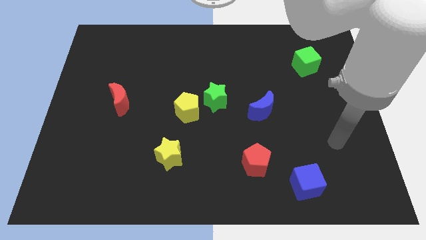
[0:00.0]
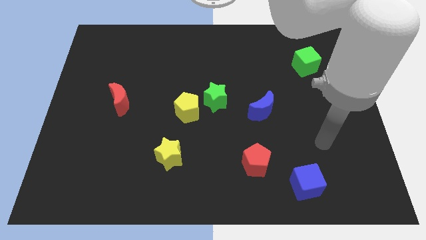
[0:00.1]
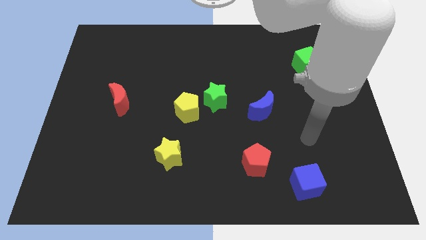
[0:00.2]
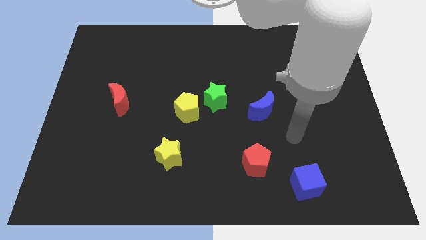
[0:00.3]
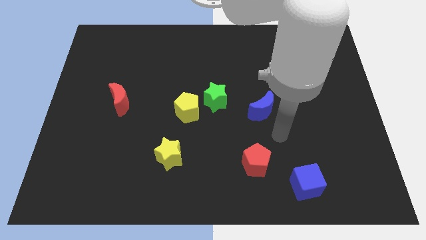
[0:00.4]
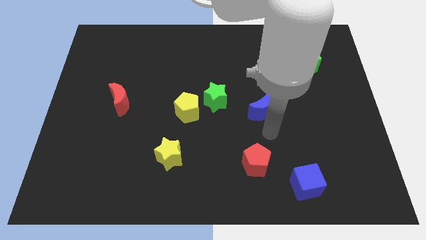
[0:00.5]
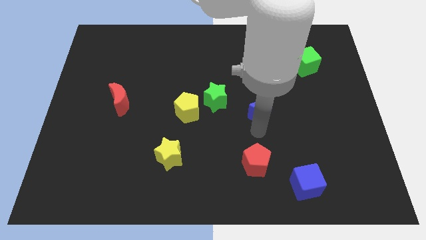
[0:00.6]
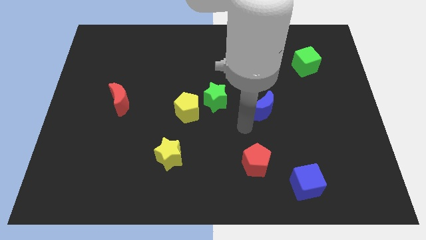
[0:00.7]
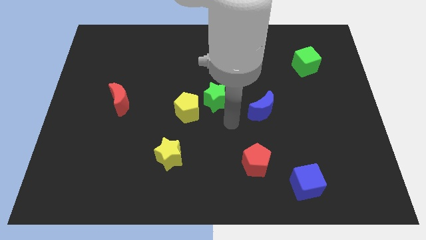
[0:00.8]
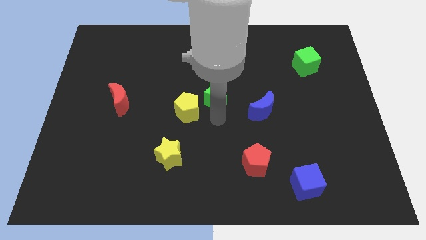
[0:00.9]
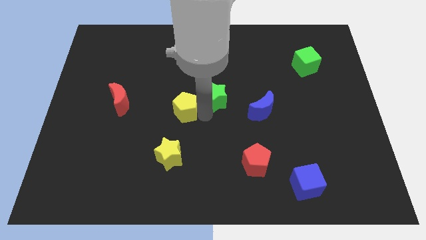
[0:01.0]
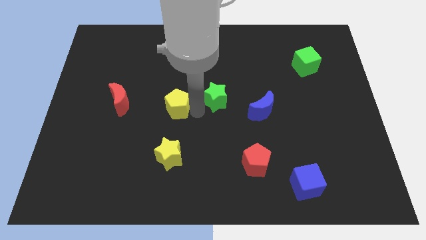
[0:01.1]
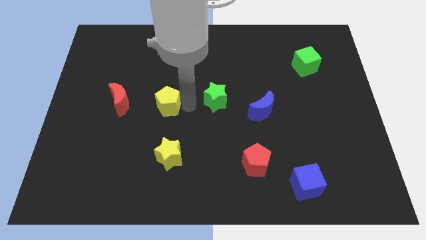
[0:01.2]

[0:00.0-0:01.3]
move the green star away from the yellow pentagon

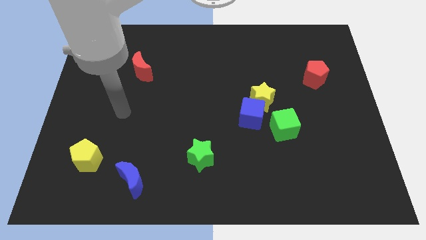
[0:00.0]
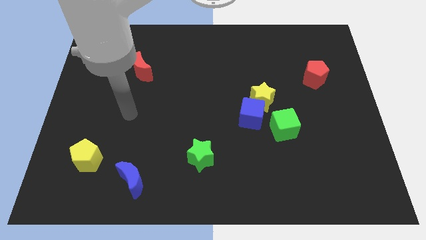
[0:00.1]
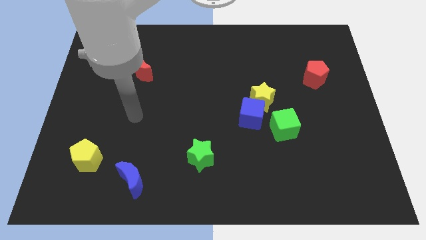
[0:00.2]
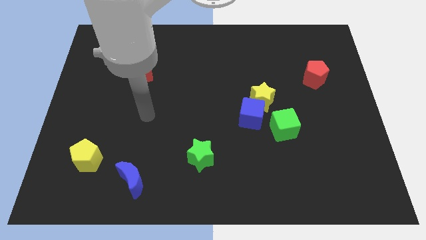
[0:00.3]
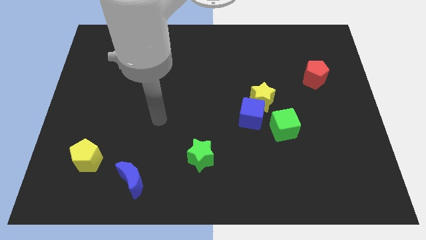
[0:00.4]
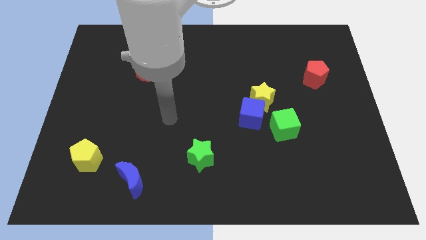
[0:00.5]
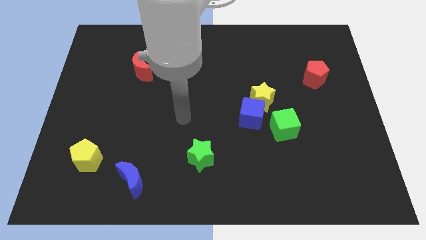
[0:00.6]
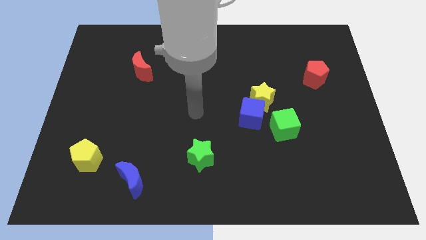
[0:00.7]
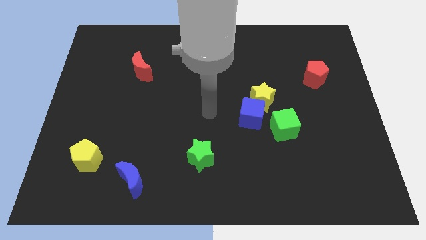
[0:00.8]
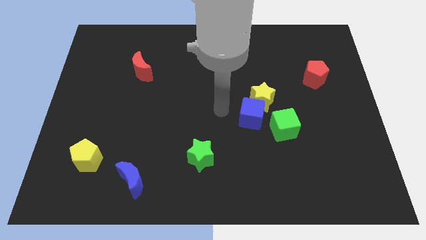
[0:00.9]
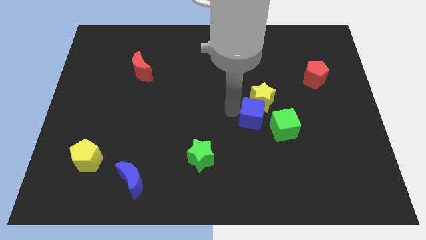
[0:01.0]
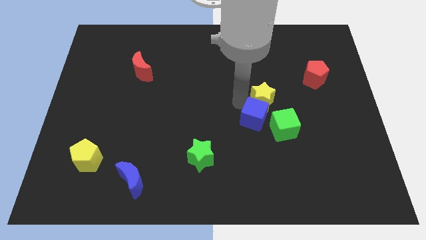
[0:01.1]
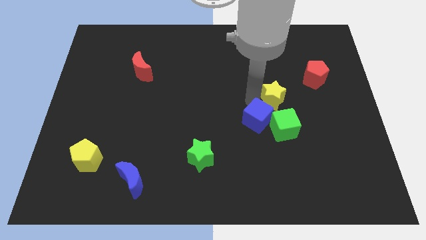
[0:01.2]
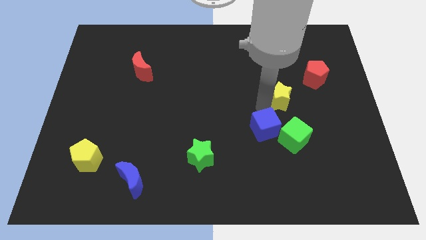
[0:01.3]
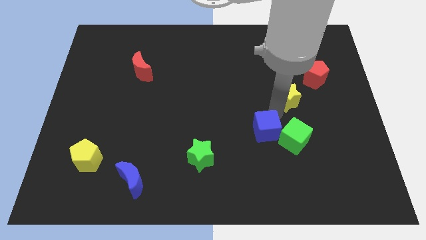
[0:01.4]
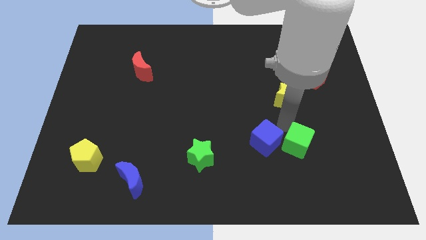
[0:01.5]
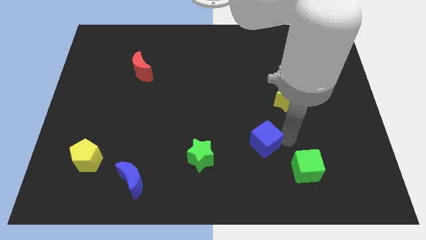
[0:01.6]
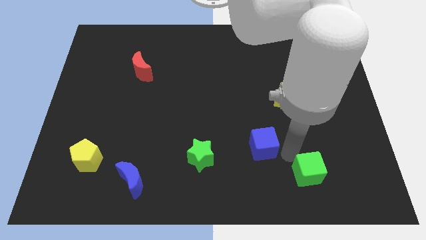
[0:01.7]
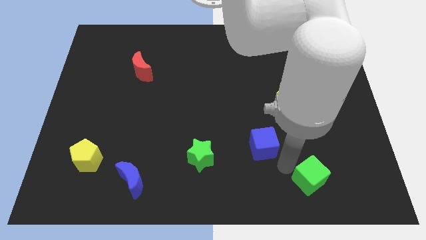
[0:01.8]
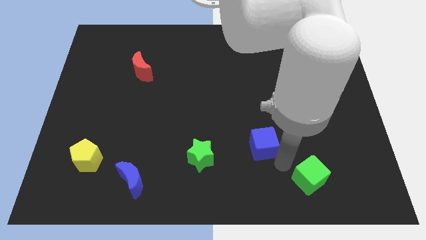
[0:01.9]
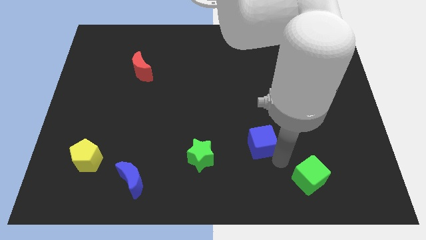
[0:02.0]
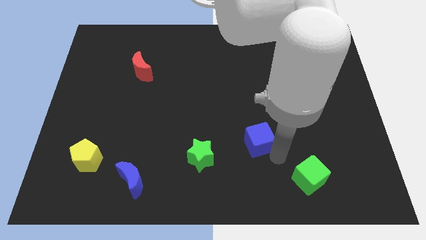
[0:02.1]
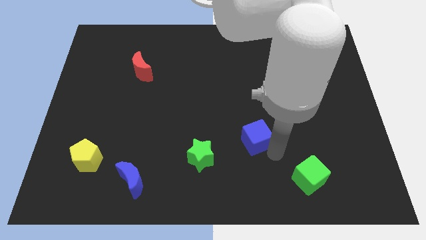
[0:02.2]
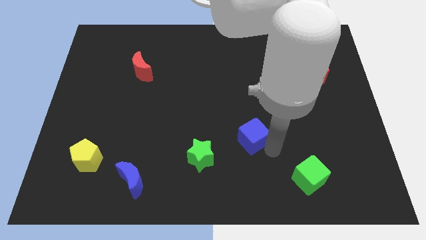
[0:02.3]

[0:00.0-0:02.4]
move the blue cube away from the yellow star and green cube

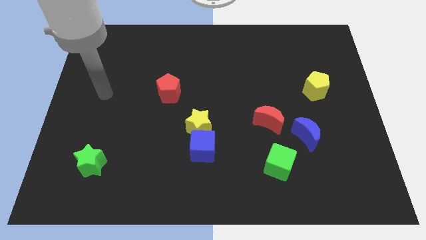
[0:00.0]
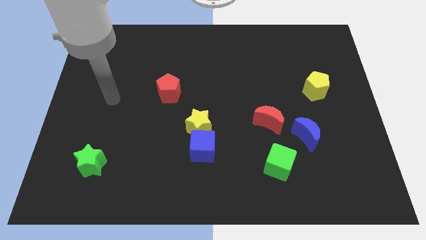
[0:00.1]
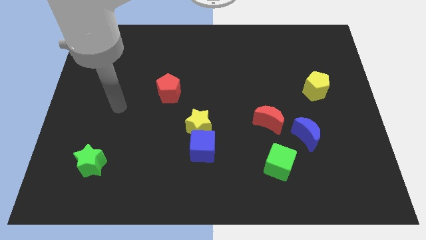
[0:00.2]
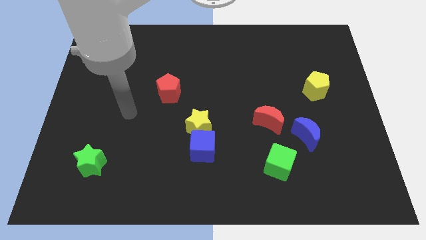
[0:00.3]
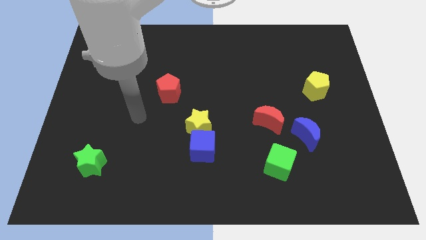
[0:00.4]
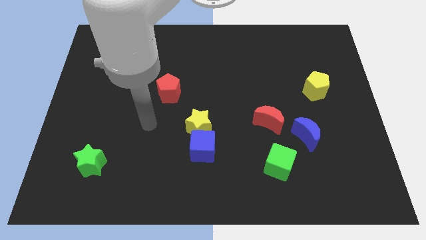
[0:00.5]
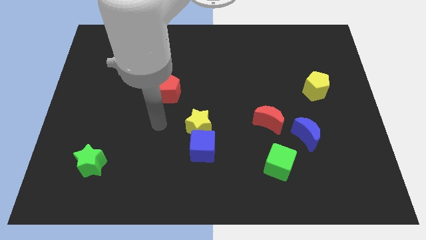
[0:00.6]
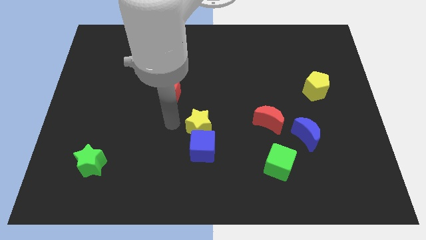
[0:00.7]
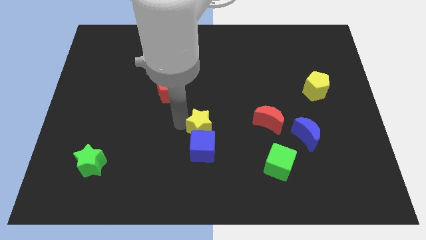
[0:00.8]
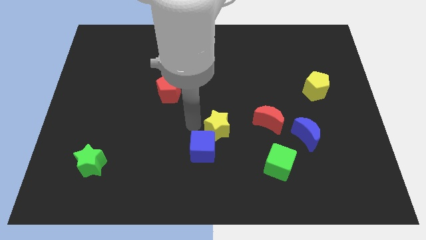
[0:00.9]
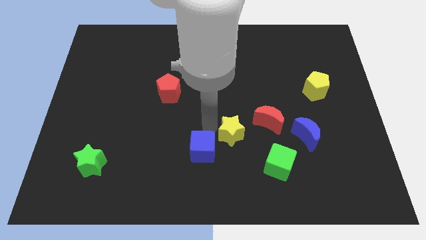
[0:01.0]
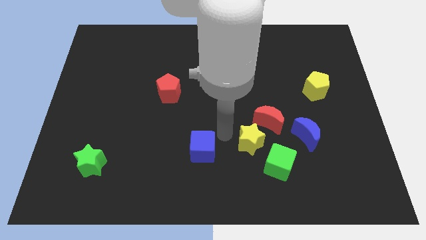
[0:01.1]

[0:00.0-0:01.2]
pull the blue cube apart from the yellow star

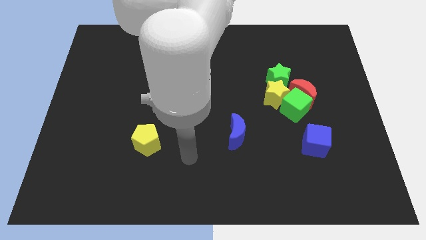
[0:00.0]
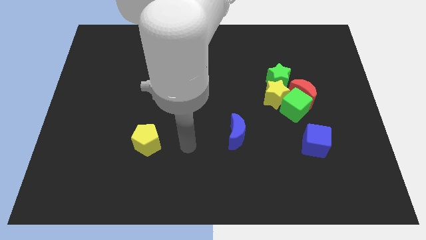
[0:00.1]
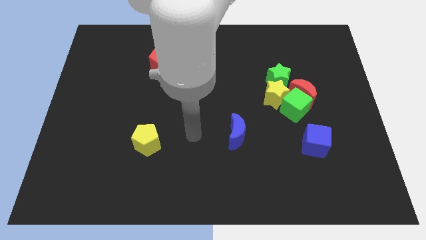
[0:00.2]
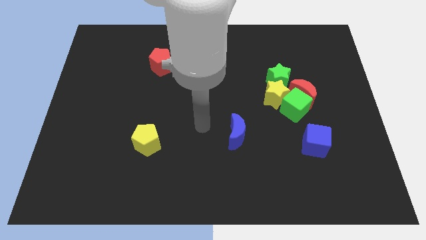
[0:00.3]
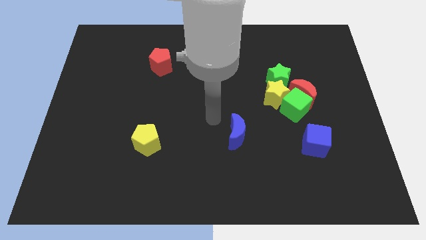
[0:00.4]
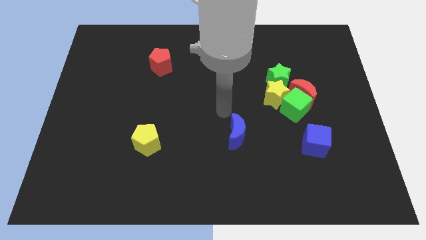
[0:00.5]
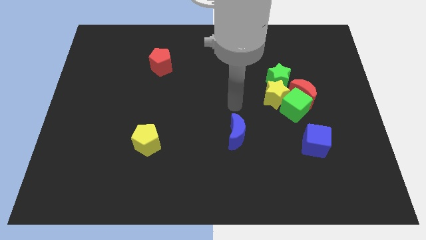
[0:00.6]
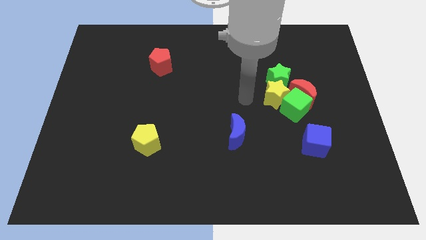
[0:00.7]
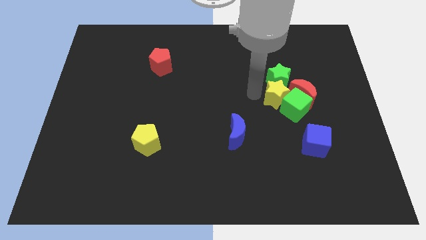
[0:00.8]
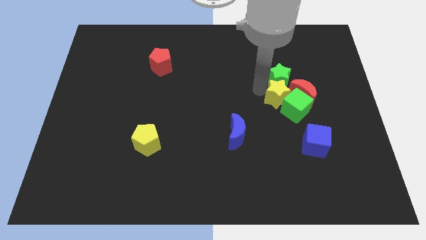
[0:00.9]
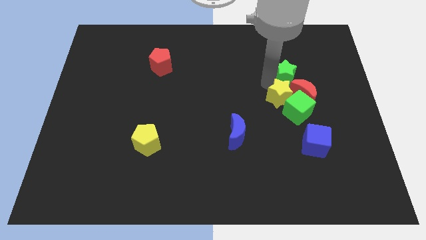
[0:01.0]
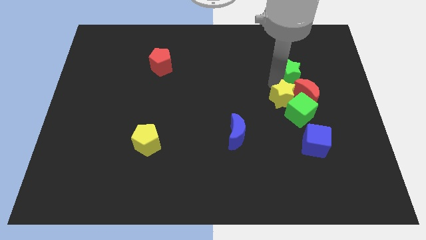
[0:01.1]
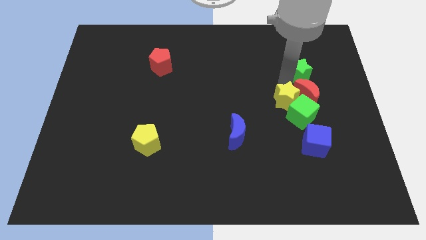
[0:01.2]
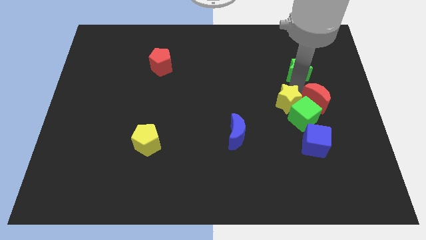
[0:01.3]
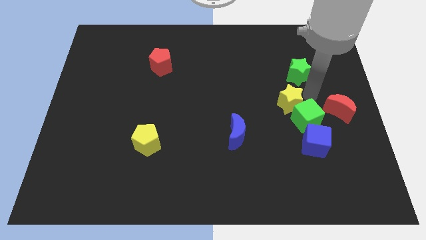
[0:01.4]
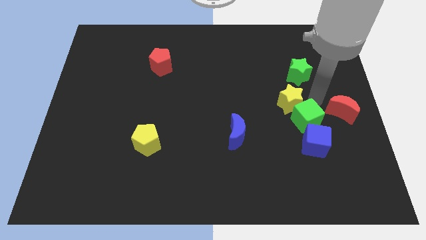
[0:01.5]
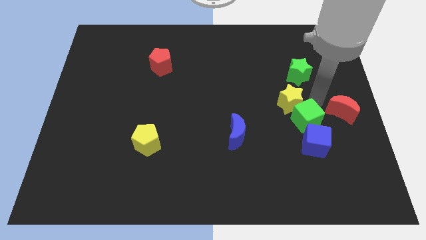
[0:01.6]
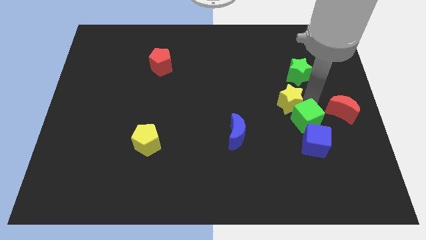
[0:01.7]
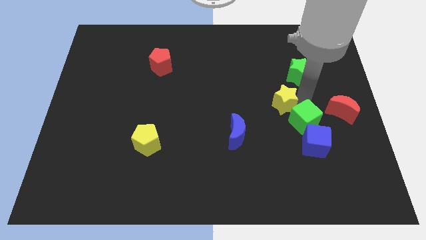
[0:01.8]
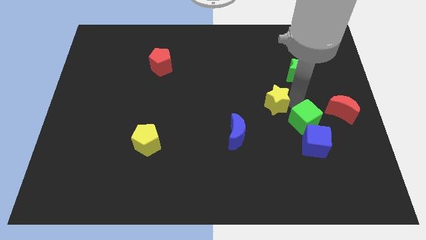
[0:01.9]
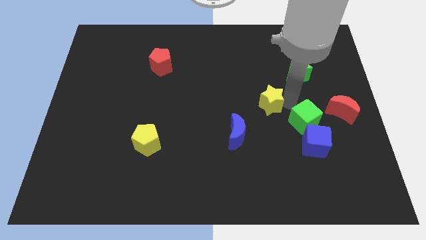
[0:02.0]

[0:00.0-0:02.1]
pull the yellow star apart from the group

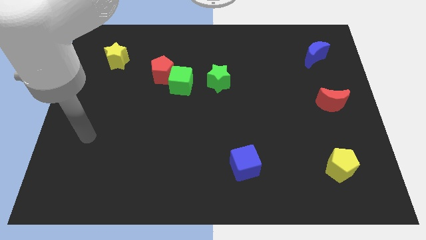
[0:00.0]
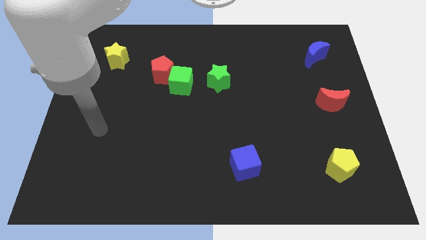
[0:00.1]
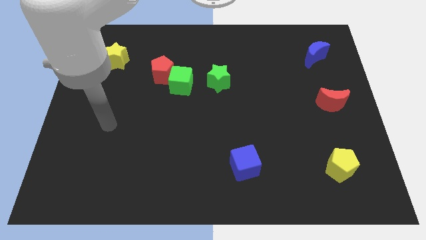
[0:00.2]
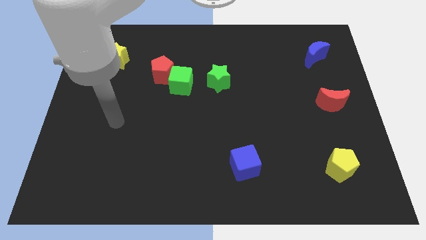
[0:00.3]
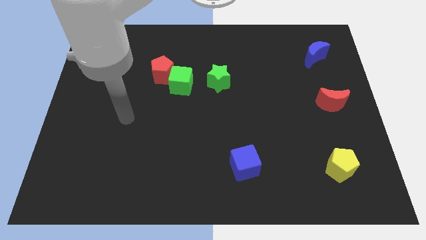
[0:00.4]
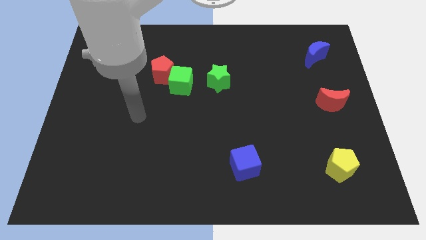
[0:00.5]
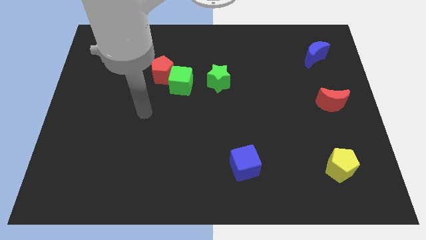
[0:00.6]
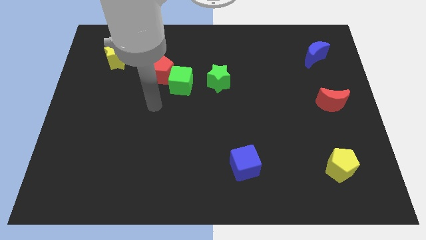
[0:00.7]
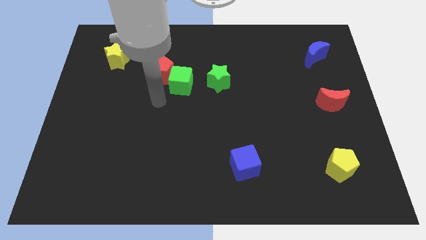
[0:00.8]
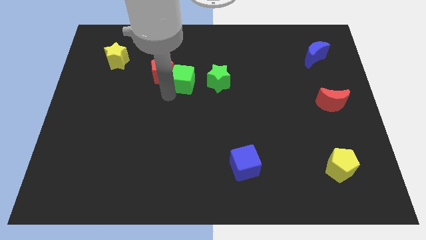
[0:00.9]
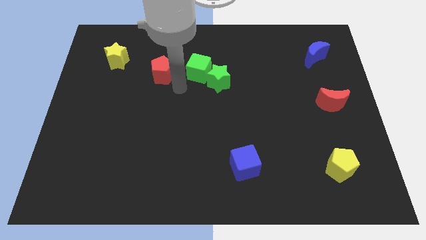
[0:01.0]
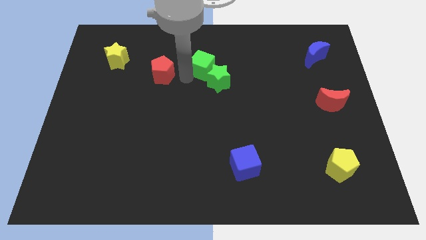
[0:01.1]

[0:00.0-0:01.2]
separate the red pentagon from the green cube

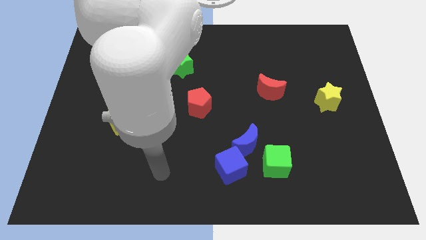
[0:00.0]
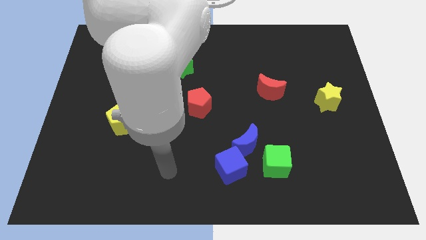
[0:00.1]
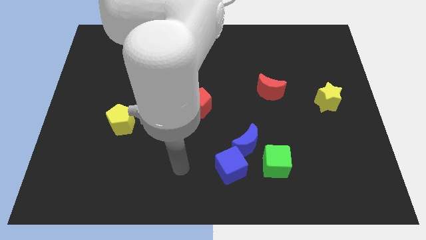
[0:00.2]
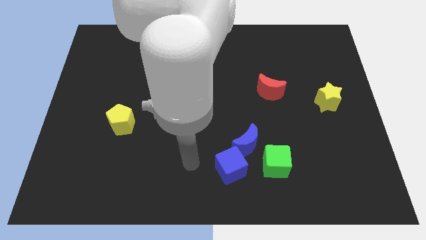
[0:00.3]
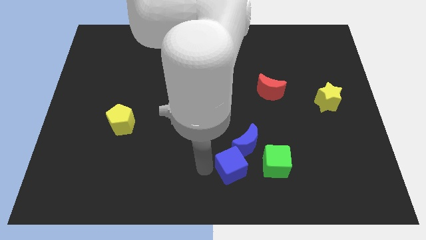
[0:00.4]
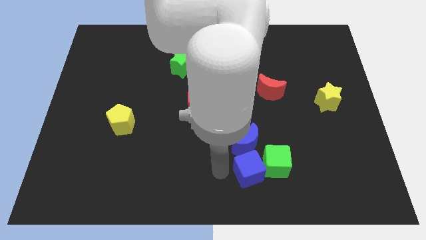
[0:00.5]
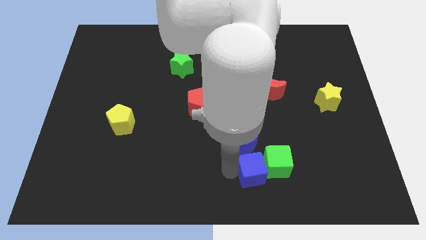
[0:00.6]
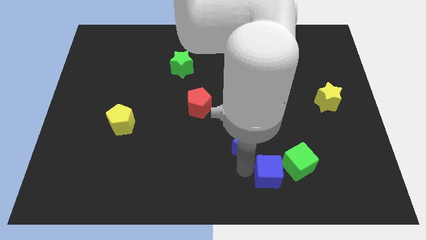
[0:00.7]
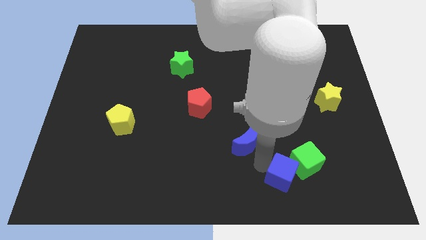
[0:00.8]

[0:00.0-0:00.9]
move the blue moon away from the blue cube and green cube

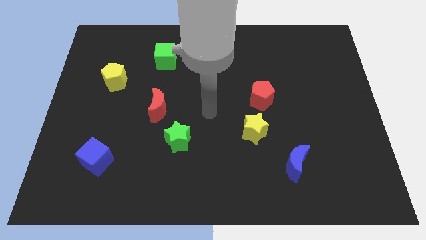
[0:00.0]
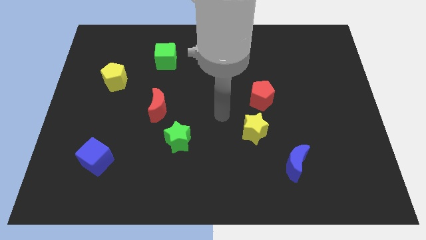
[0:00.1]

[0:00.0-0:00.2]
move the red pentagon away from the yellow star
